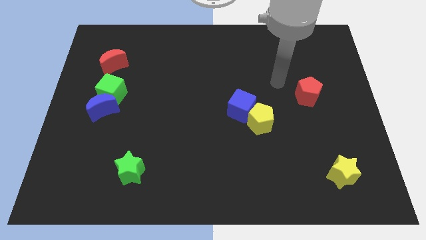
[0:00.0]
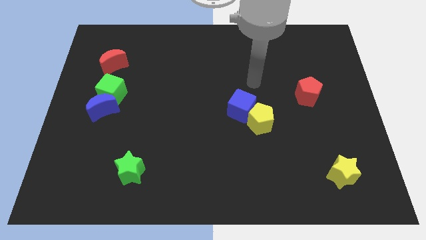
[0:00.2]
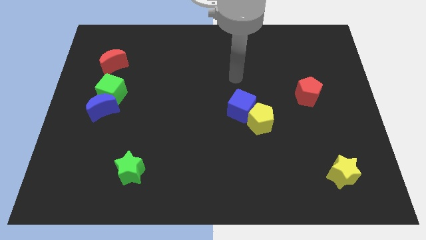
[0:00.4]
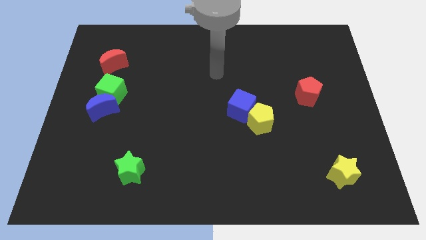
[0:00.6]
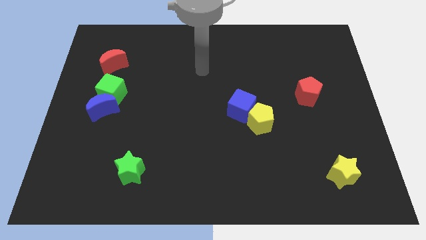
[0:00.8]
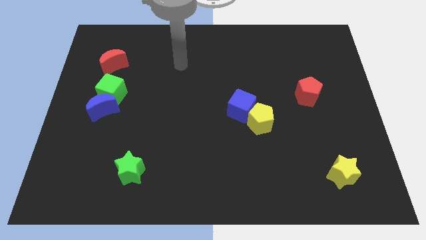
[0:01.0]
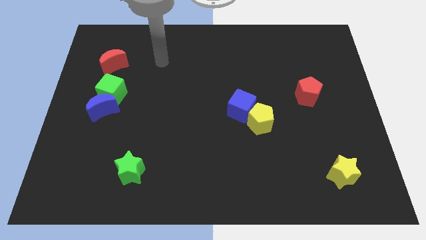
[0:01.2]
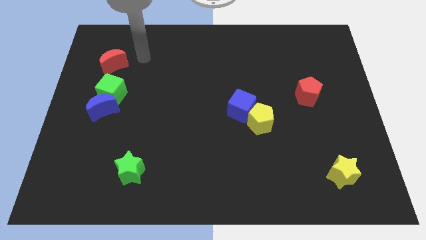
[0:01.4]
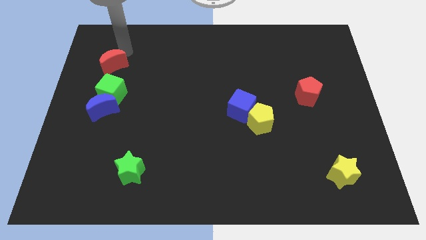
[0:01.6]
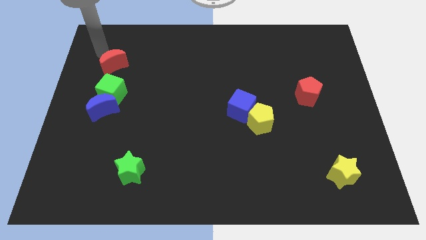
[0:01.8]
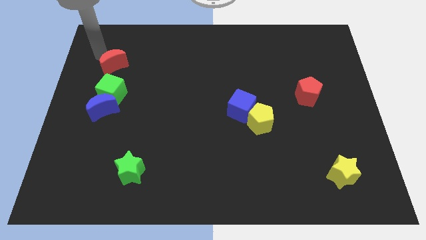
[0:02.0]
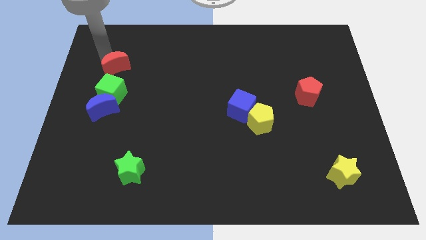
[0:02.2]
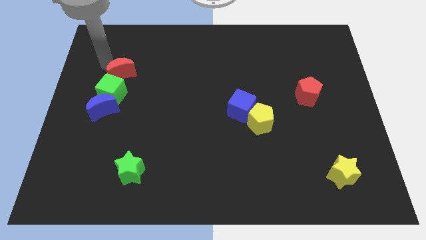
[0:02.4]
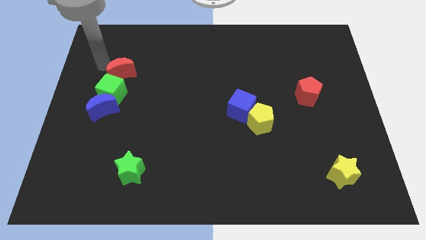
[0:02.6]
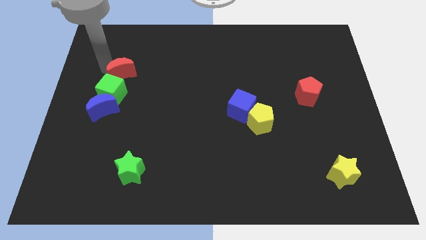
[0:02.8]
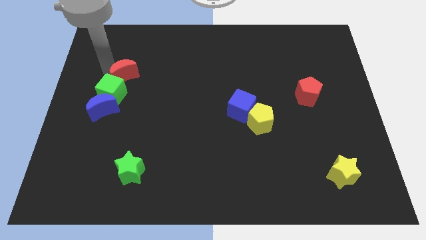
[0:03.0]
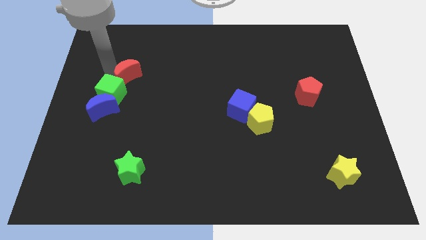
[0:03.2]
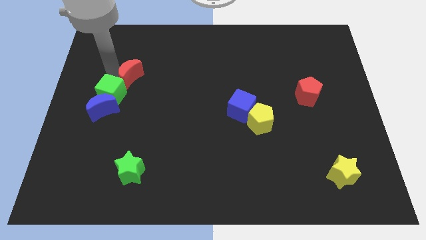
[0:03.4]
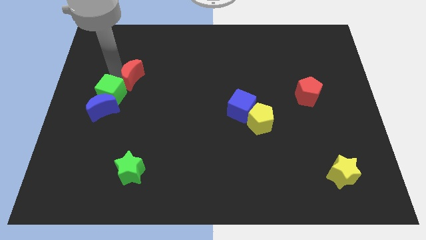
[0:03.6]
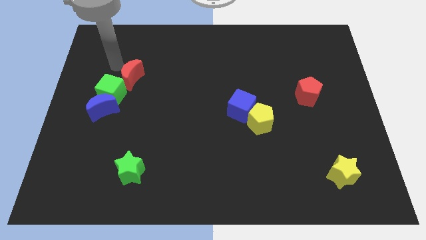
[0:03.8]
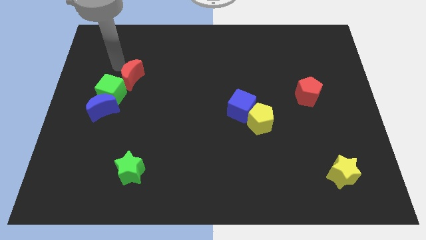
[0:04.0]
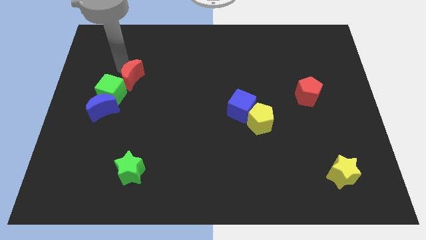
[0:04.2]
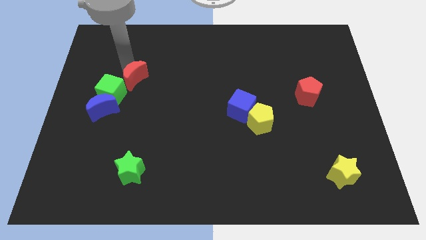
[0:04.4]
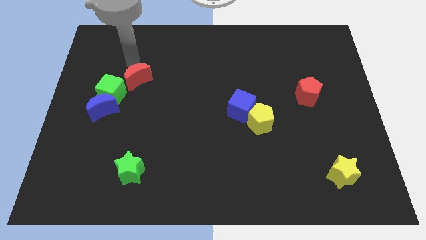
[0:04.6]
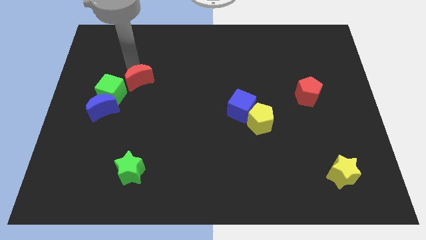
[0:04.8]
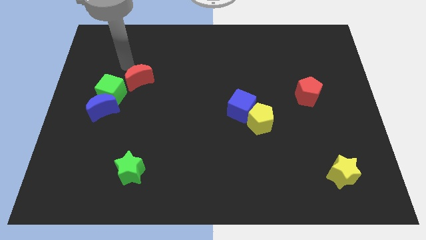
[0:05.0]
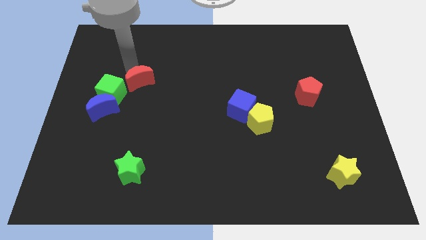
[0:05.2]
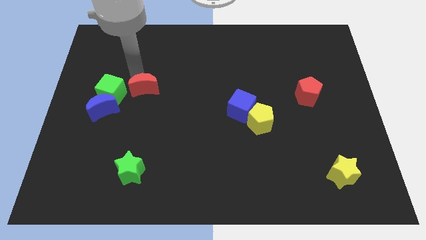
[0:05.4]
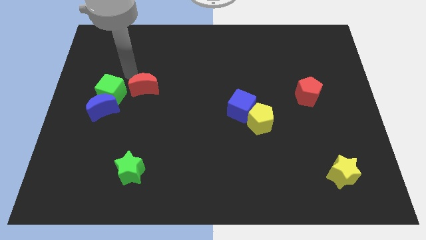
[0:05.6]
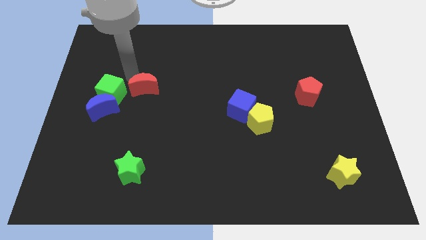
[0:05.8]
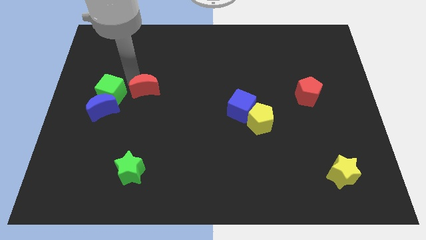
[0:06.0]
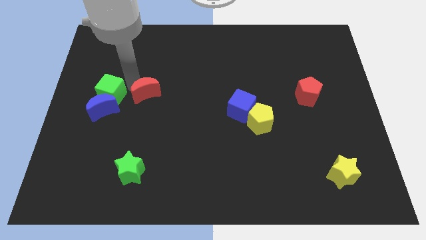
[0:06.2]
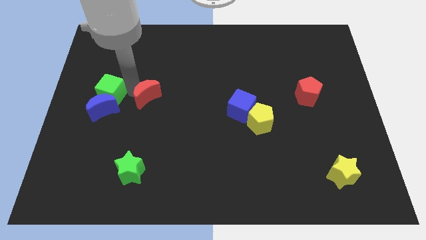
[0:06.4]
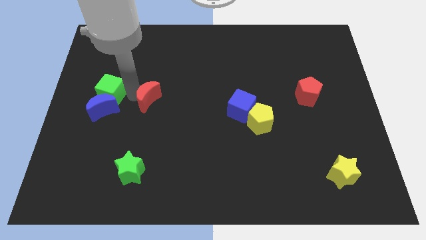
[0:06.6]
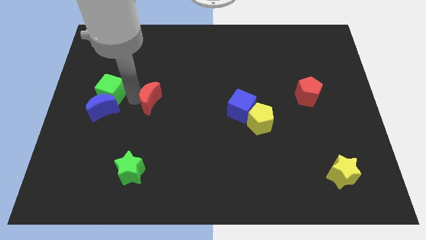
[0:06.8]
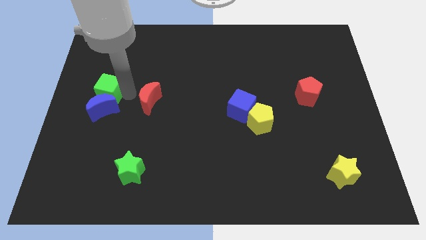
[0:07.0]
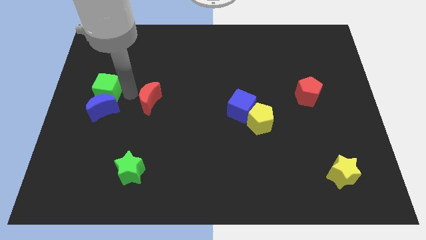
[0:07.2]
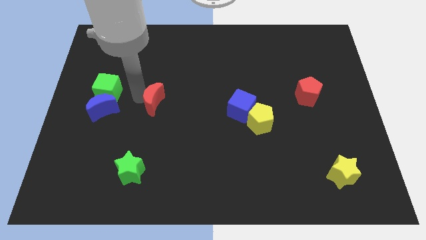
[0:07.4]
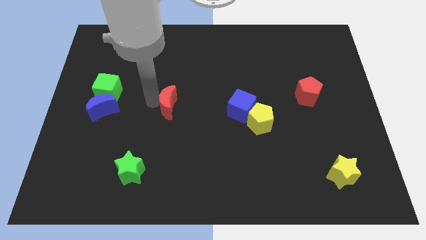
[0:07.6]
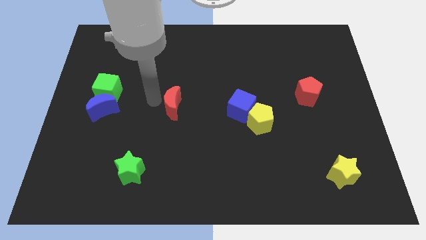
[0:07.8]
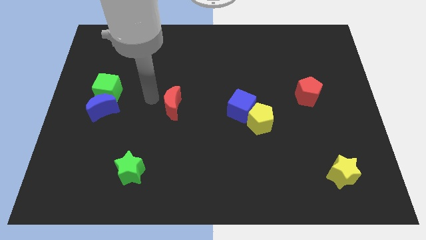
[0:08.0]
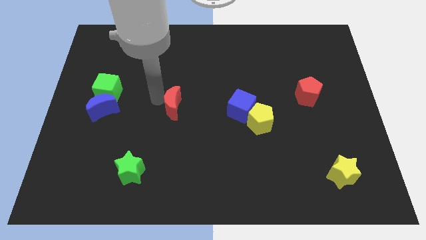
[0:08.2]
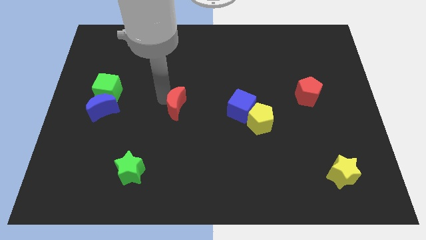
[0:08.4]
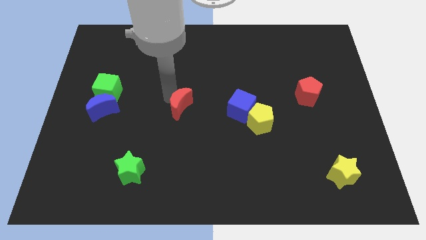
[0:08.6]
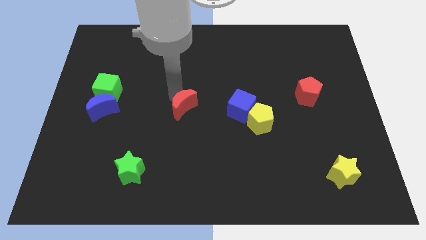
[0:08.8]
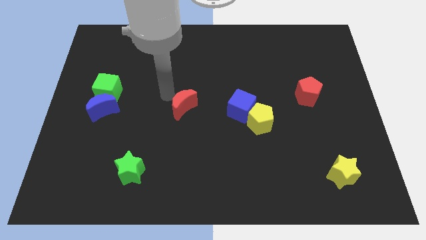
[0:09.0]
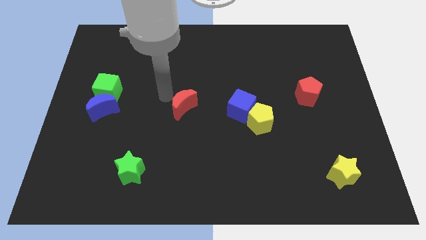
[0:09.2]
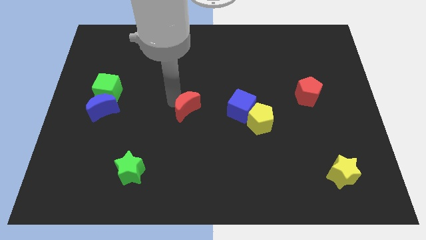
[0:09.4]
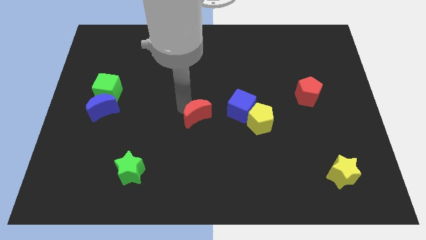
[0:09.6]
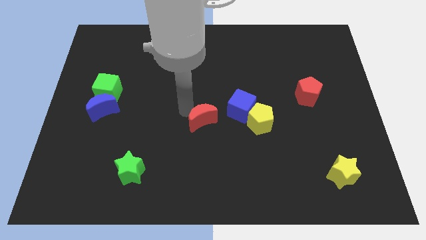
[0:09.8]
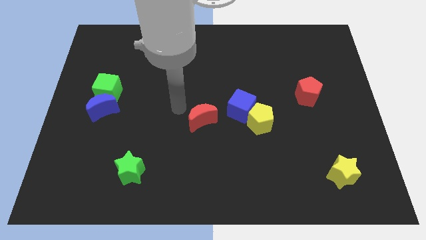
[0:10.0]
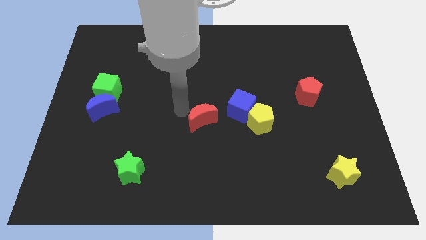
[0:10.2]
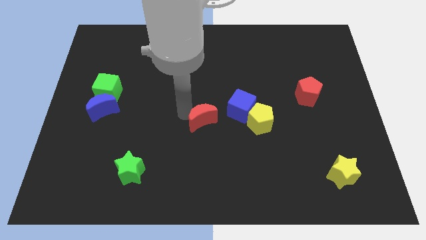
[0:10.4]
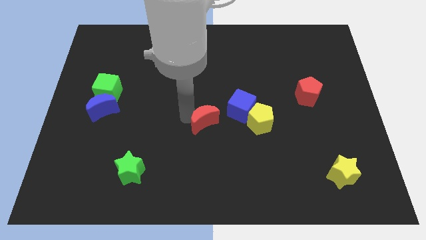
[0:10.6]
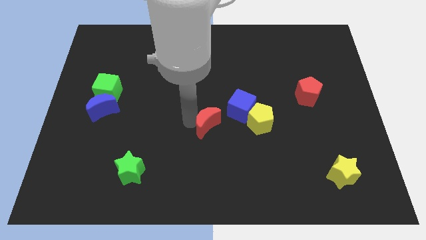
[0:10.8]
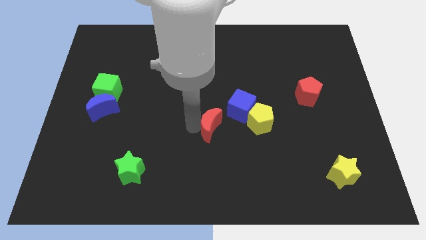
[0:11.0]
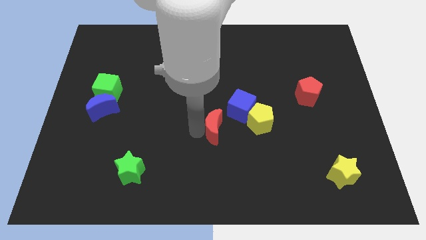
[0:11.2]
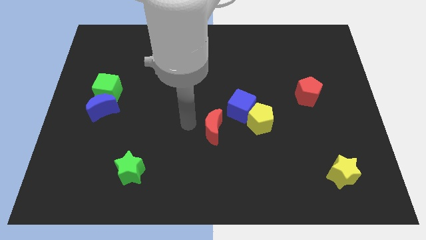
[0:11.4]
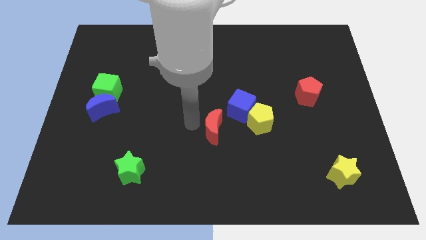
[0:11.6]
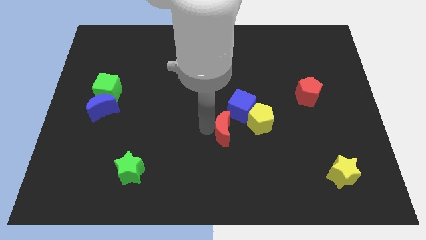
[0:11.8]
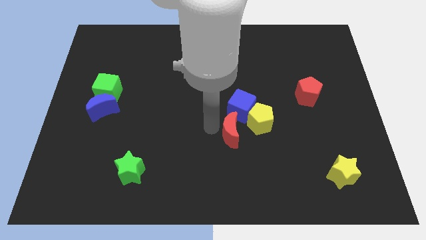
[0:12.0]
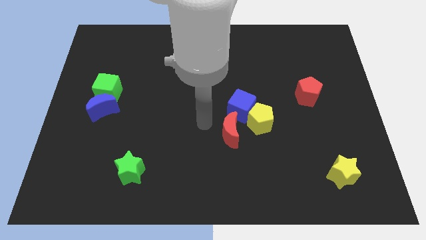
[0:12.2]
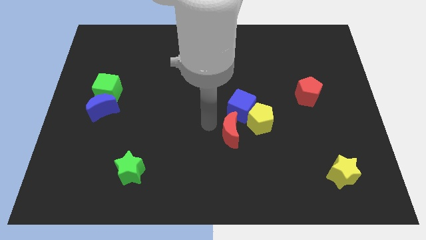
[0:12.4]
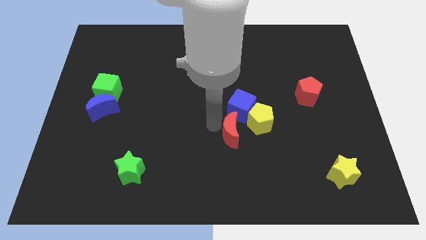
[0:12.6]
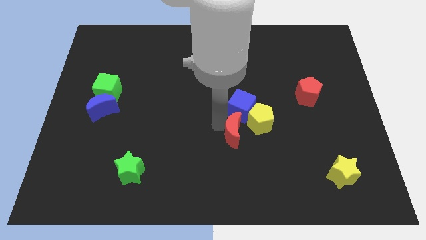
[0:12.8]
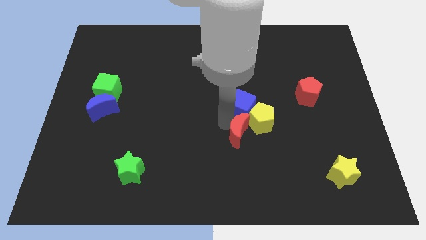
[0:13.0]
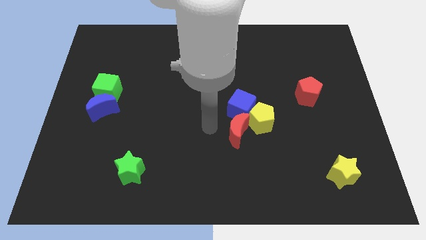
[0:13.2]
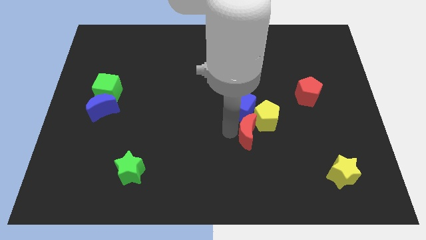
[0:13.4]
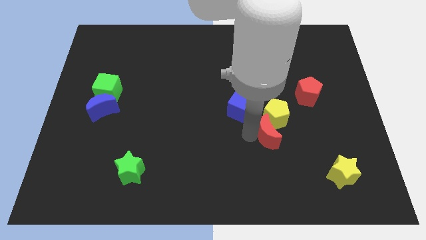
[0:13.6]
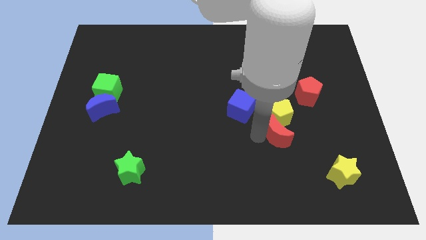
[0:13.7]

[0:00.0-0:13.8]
push the red moon to the bottom right side of the yellow pentagon

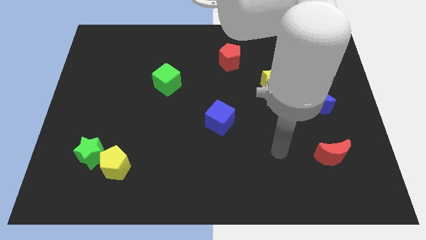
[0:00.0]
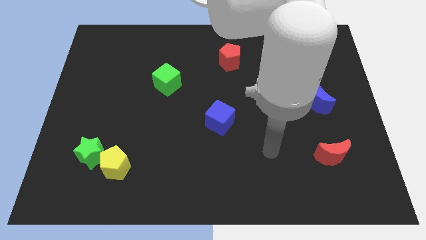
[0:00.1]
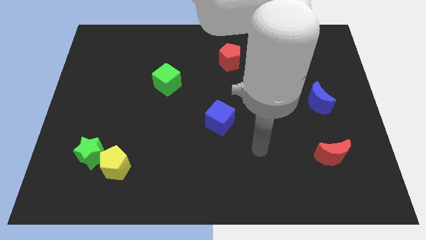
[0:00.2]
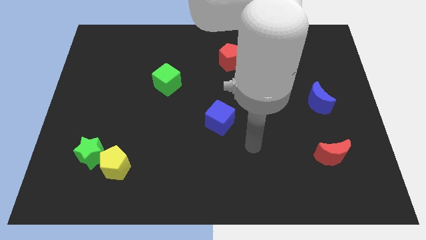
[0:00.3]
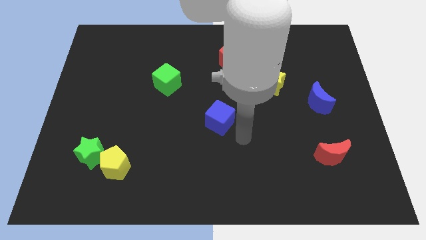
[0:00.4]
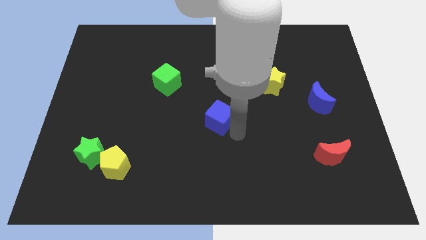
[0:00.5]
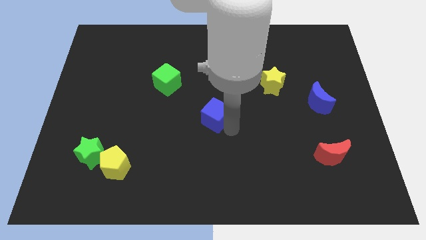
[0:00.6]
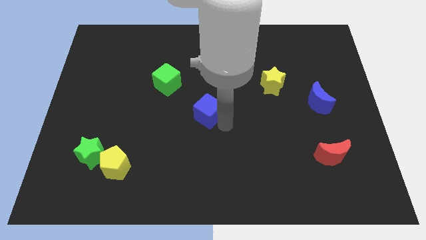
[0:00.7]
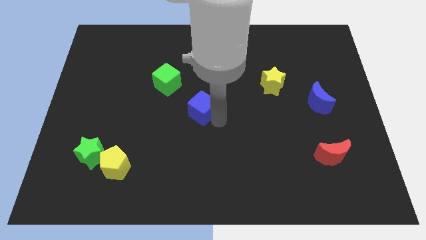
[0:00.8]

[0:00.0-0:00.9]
put the blue cube diagonally down and to the right of the green cube
